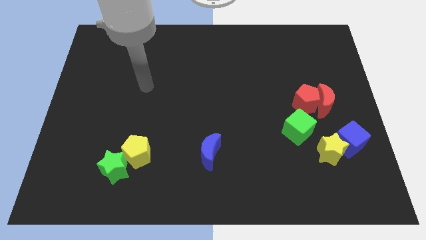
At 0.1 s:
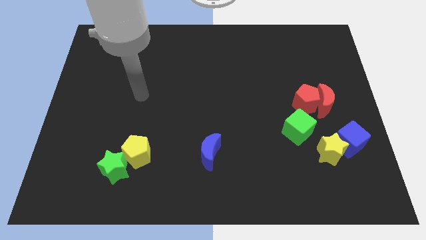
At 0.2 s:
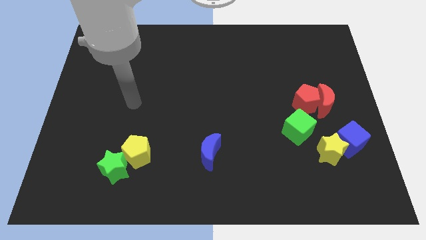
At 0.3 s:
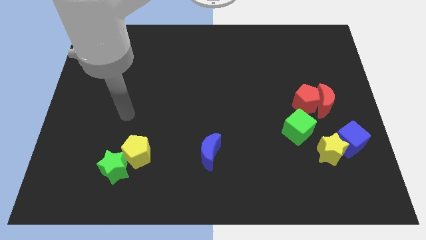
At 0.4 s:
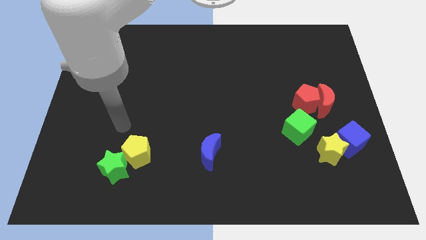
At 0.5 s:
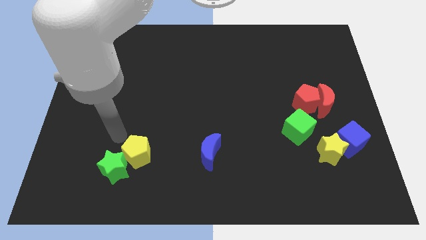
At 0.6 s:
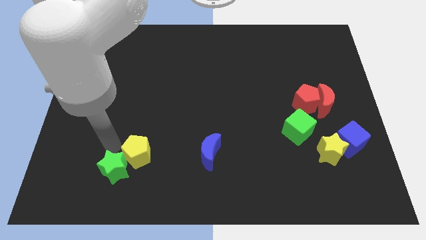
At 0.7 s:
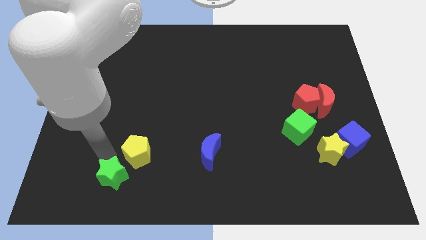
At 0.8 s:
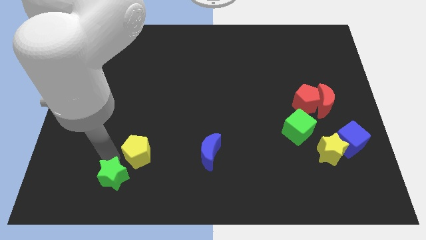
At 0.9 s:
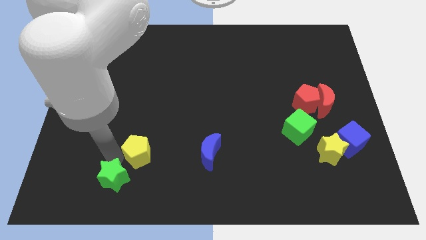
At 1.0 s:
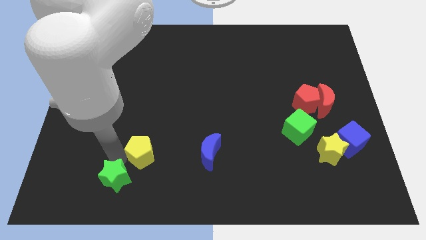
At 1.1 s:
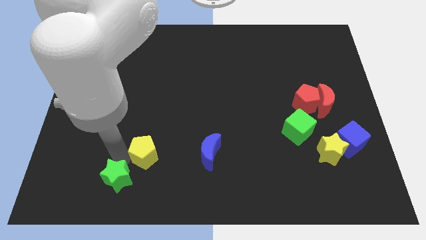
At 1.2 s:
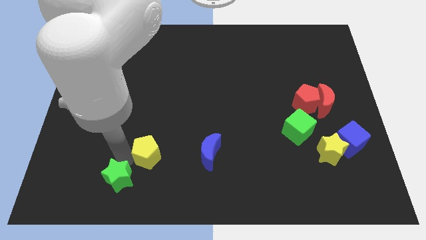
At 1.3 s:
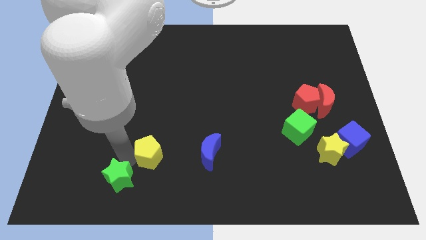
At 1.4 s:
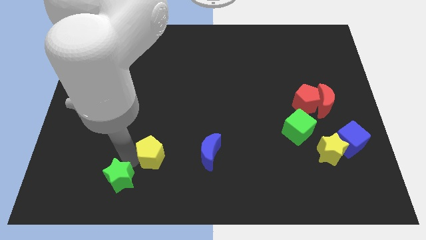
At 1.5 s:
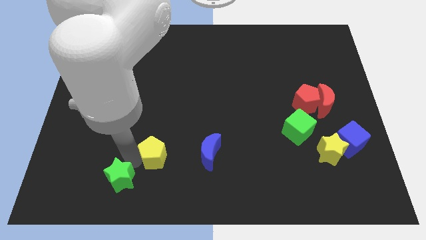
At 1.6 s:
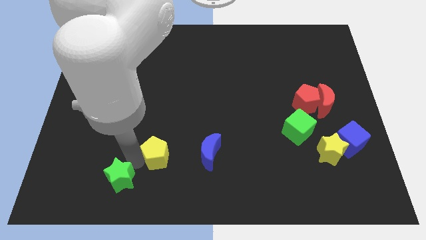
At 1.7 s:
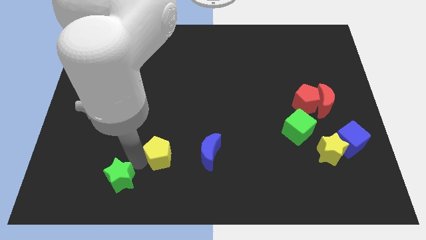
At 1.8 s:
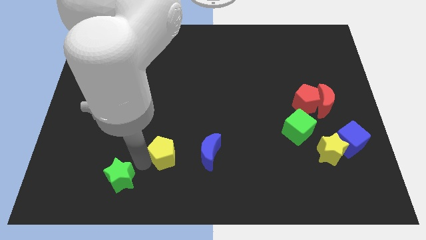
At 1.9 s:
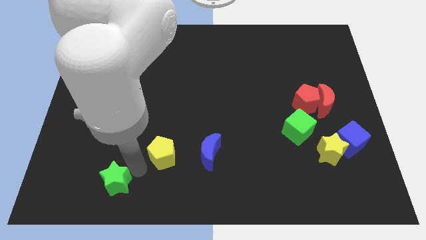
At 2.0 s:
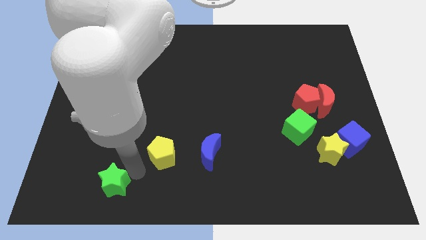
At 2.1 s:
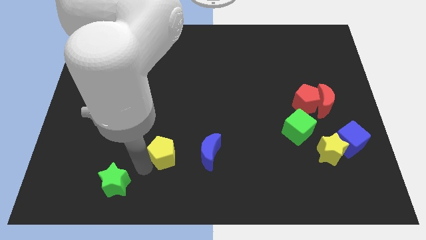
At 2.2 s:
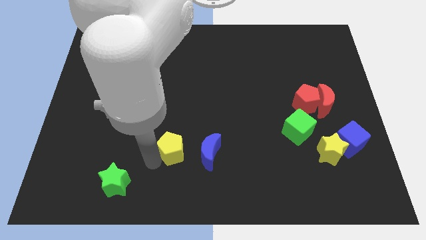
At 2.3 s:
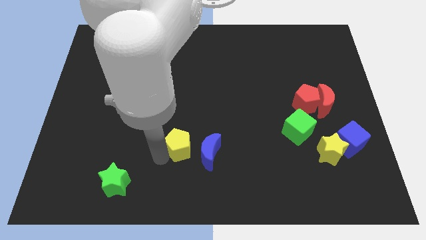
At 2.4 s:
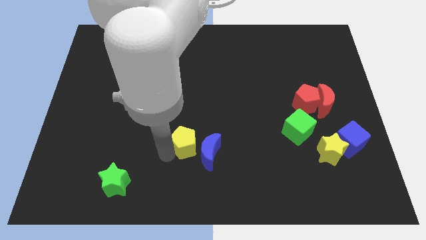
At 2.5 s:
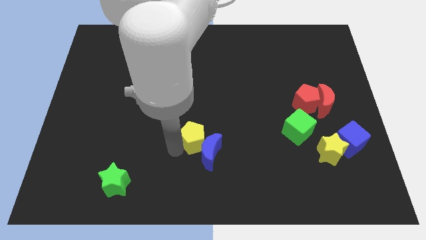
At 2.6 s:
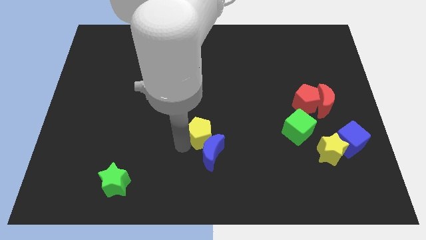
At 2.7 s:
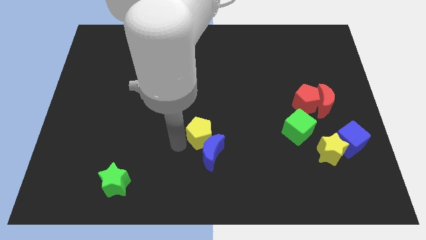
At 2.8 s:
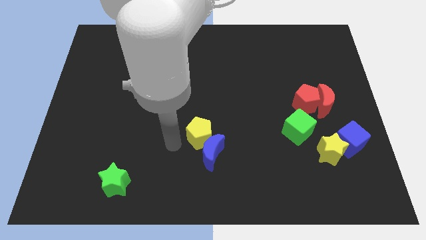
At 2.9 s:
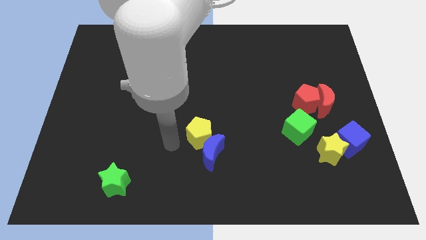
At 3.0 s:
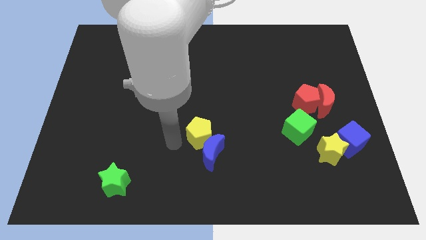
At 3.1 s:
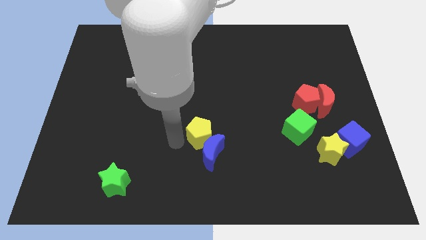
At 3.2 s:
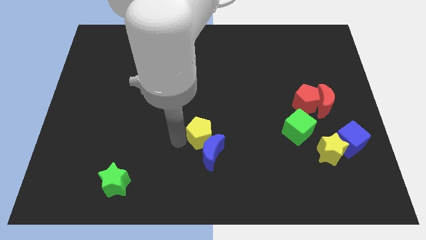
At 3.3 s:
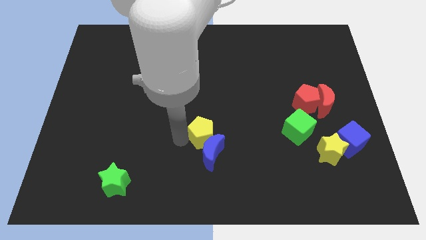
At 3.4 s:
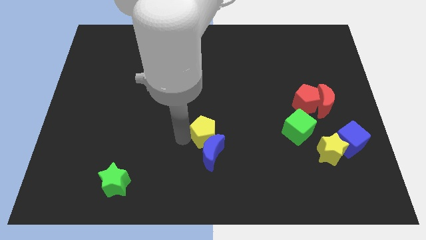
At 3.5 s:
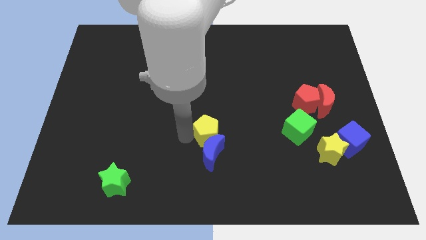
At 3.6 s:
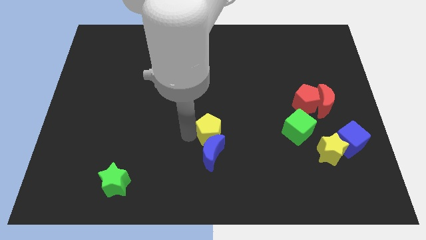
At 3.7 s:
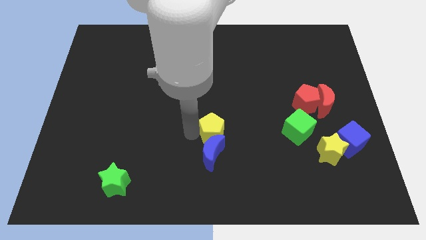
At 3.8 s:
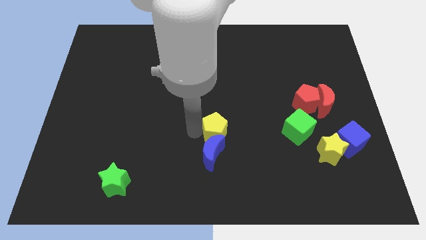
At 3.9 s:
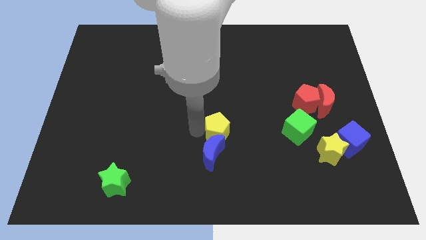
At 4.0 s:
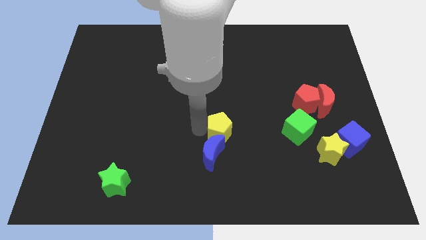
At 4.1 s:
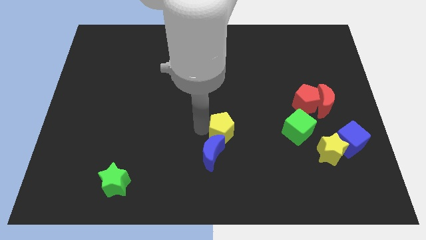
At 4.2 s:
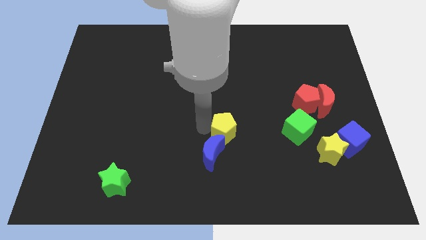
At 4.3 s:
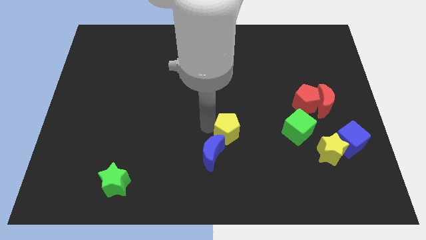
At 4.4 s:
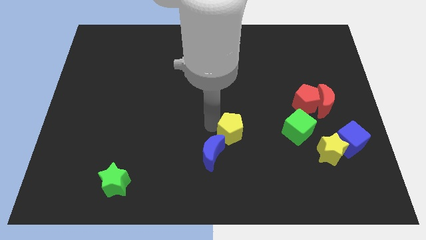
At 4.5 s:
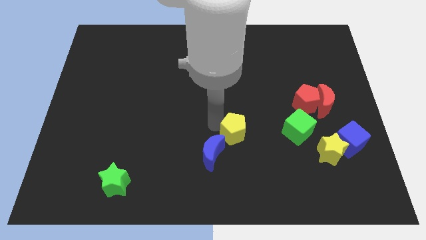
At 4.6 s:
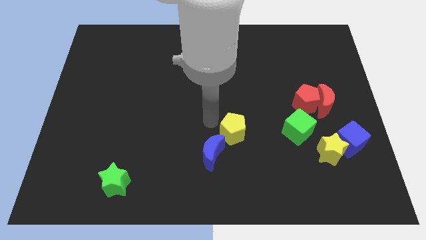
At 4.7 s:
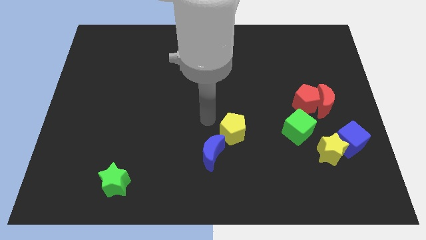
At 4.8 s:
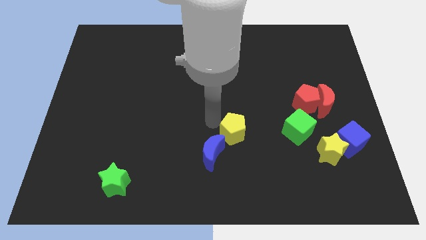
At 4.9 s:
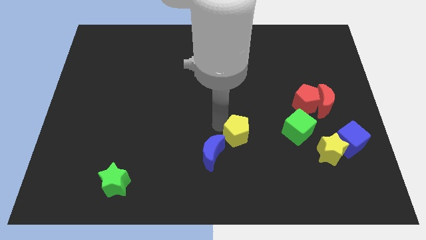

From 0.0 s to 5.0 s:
push the yellow pentagon right

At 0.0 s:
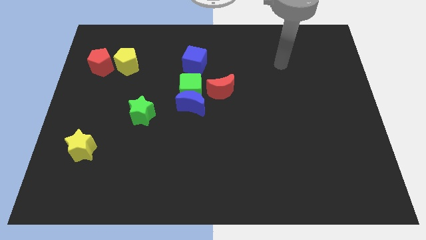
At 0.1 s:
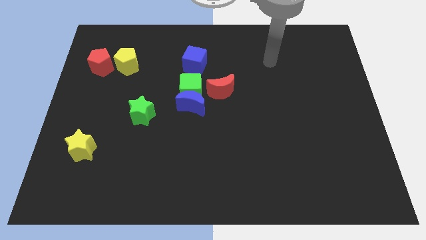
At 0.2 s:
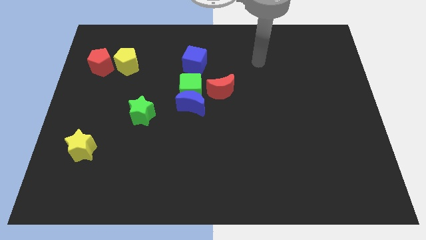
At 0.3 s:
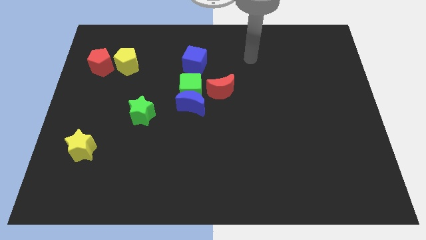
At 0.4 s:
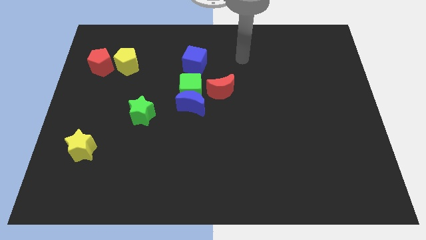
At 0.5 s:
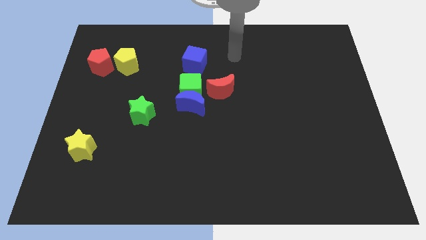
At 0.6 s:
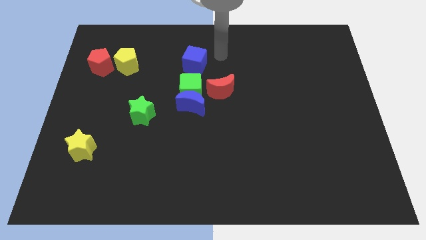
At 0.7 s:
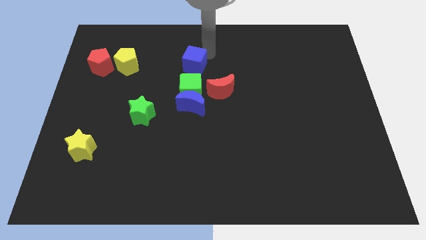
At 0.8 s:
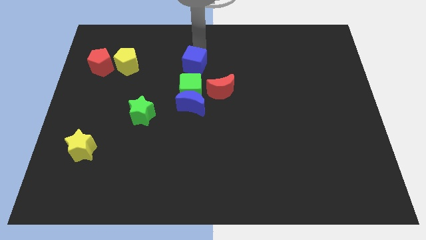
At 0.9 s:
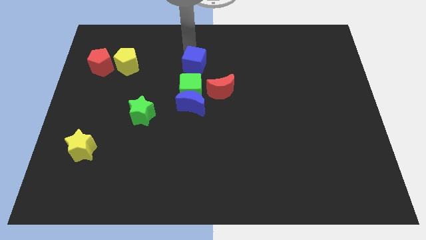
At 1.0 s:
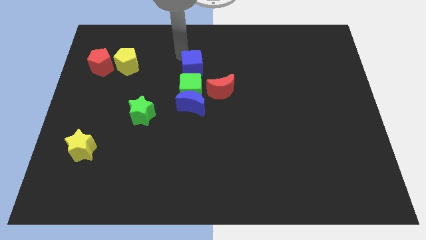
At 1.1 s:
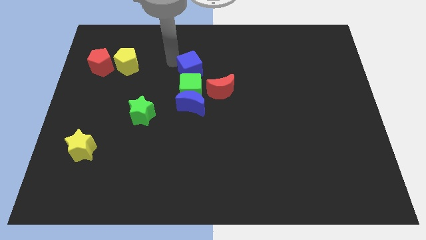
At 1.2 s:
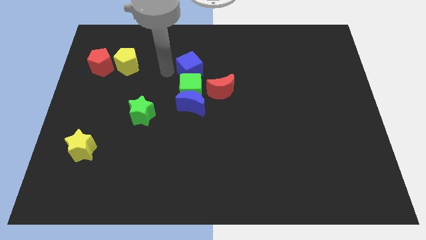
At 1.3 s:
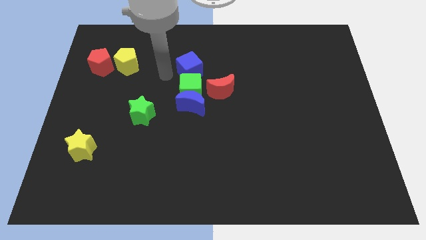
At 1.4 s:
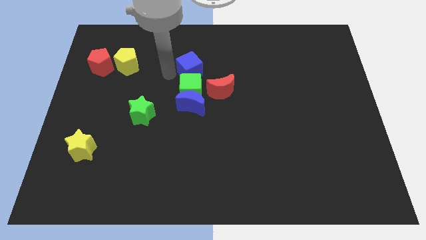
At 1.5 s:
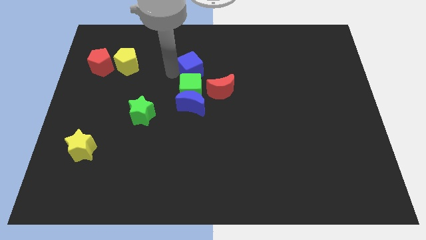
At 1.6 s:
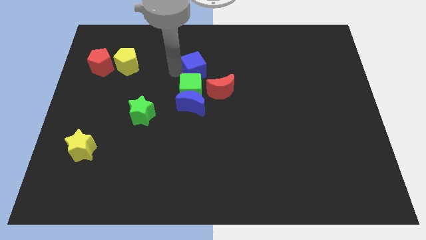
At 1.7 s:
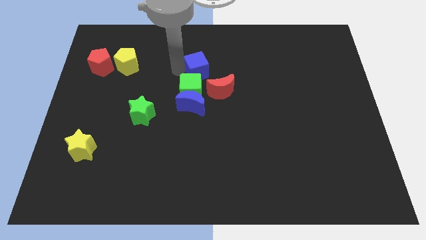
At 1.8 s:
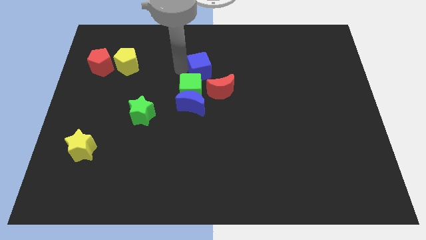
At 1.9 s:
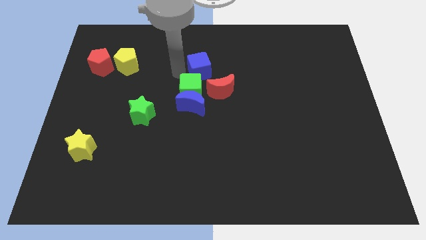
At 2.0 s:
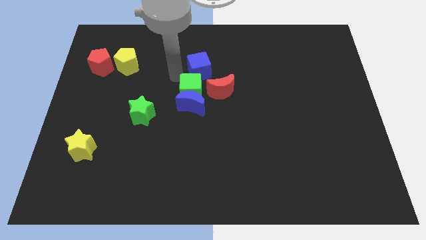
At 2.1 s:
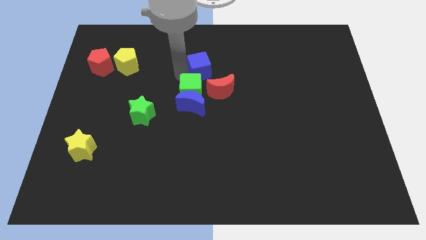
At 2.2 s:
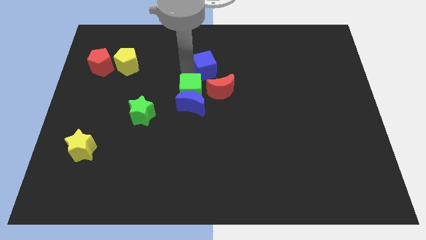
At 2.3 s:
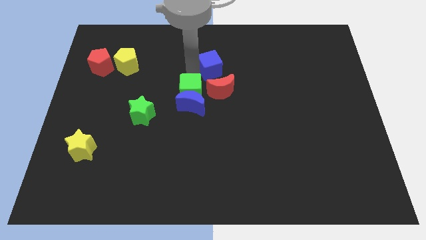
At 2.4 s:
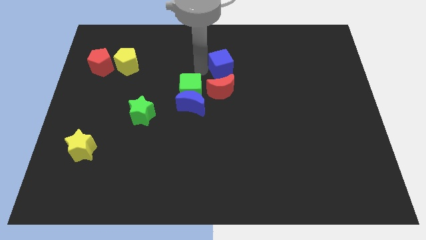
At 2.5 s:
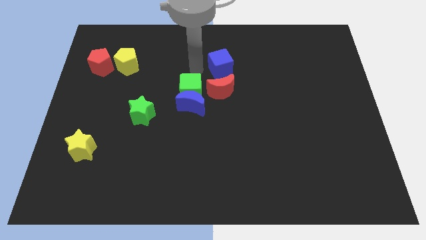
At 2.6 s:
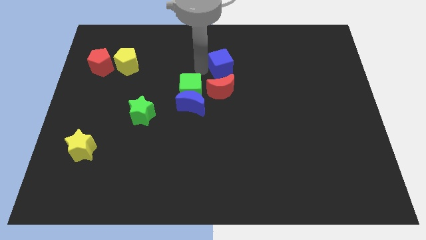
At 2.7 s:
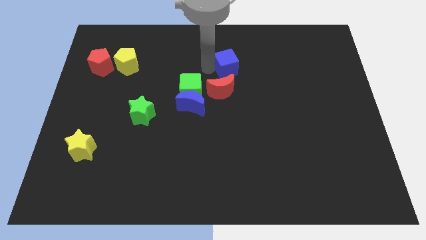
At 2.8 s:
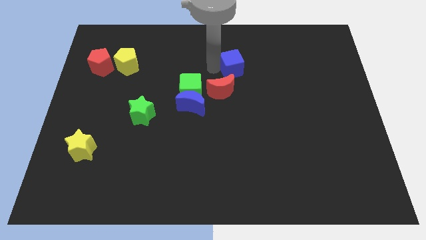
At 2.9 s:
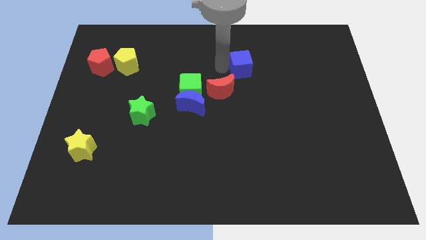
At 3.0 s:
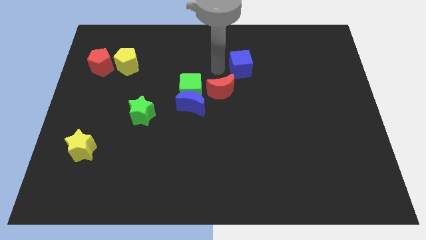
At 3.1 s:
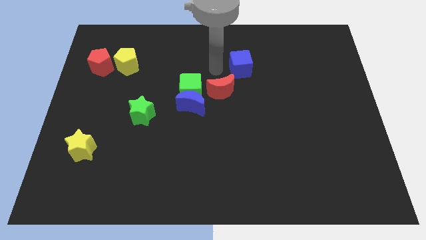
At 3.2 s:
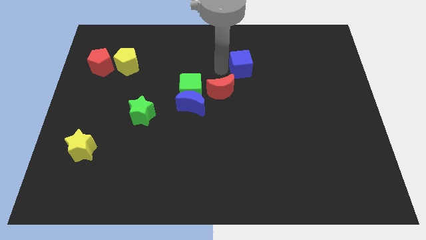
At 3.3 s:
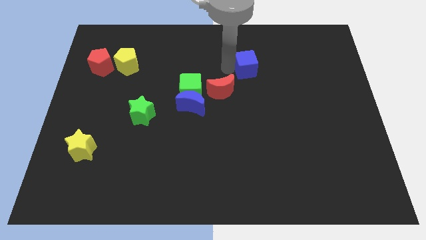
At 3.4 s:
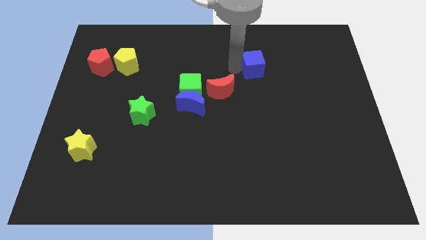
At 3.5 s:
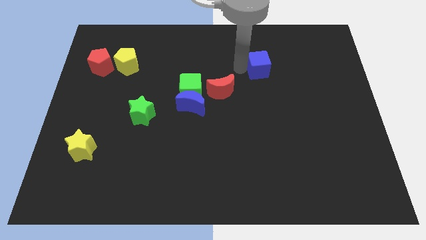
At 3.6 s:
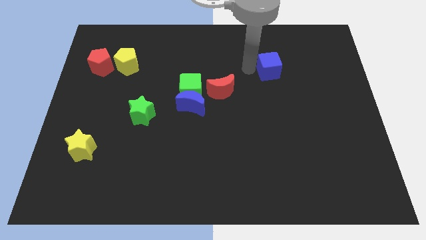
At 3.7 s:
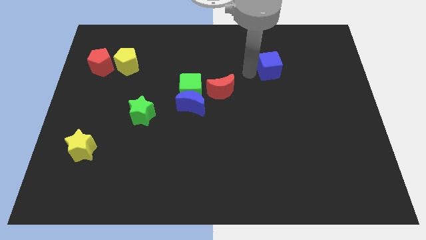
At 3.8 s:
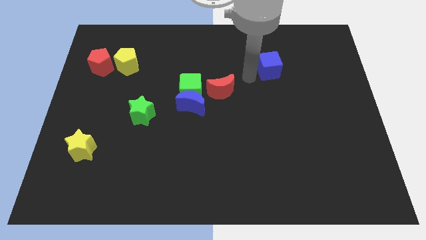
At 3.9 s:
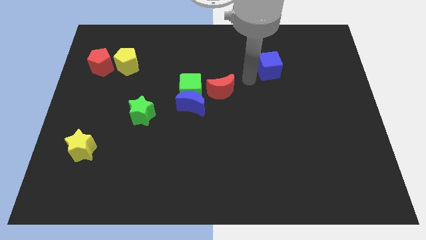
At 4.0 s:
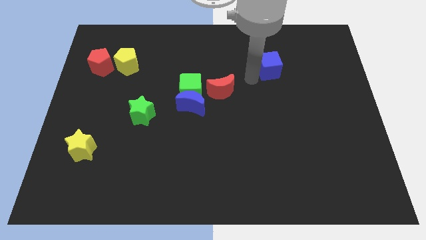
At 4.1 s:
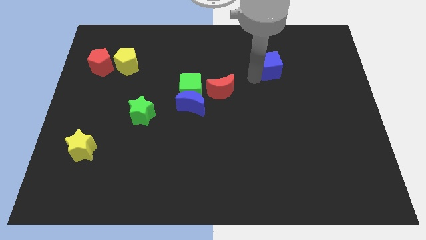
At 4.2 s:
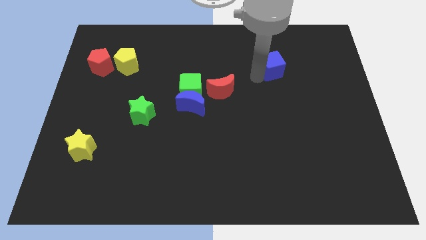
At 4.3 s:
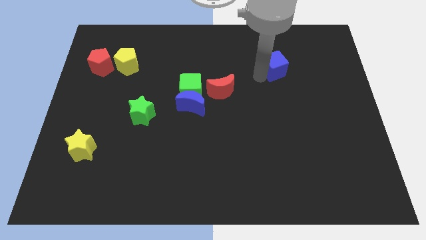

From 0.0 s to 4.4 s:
push the blue cube to the right
